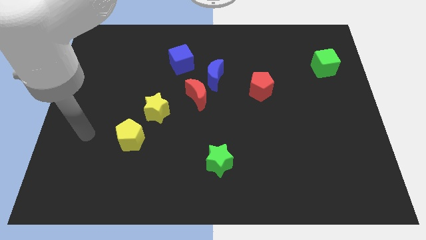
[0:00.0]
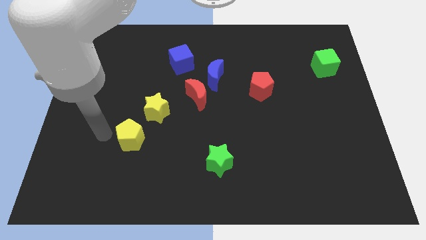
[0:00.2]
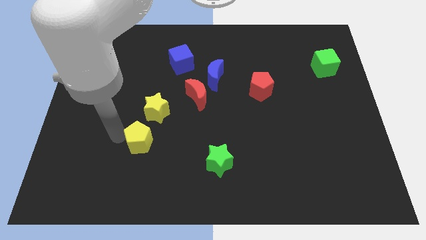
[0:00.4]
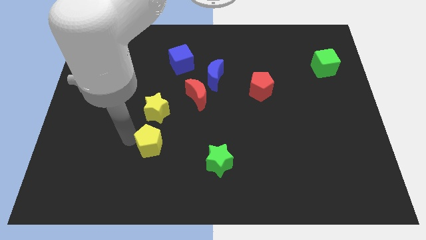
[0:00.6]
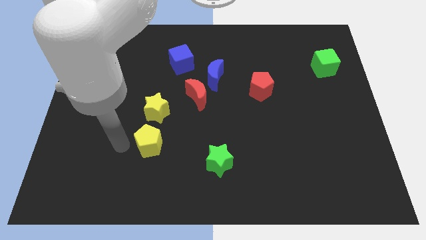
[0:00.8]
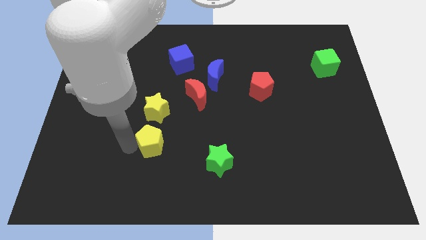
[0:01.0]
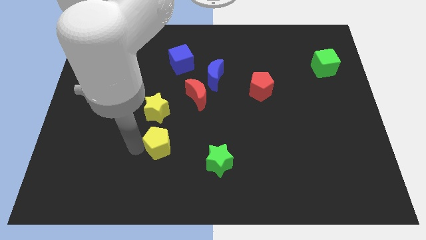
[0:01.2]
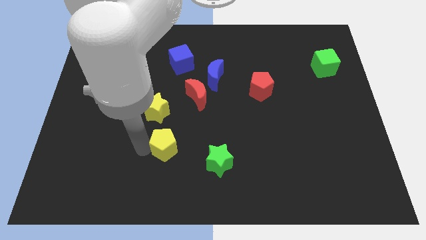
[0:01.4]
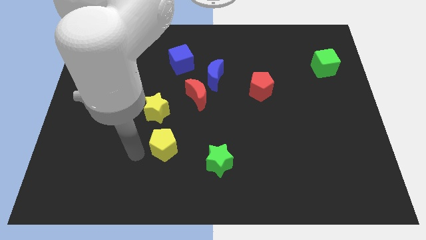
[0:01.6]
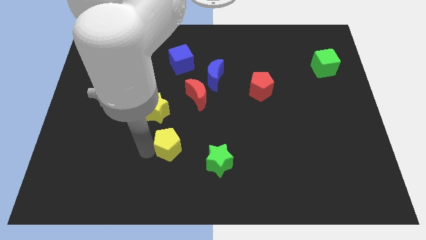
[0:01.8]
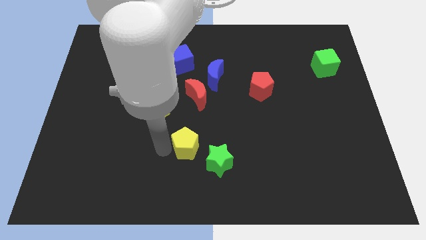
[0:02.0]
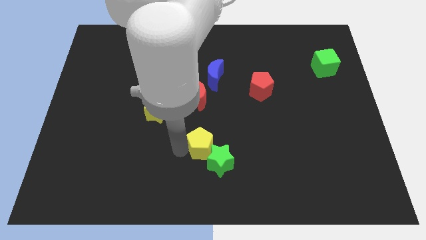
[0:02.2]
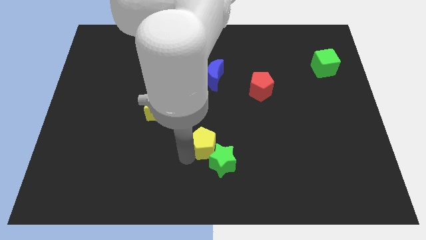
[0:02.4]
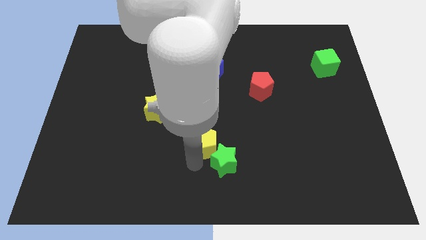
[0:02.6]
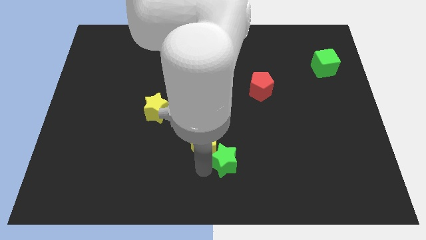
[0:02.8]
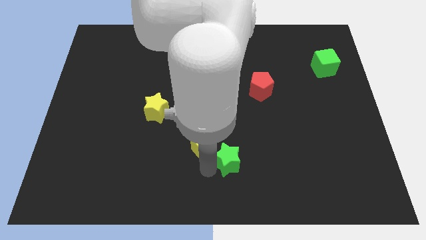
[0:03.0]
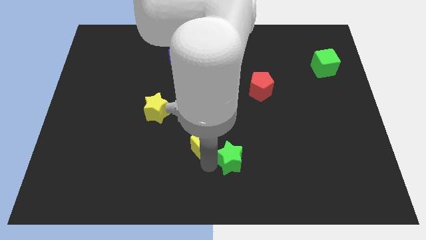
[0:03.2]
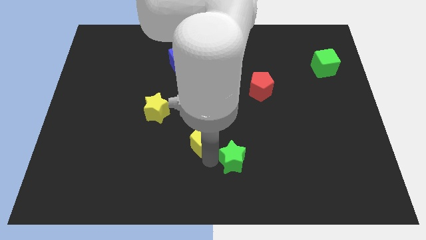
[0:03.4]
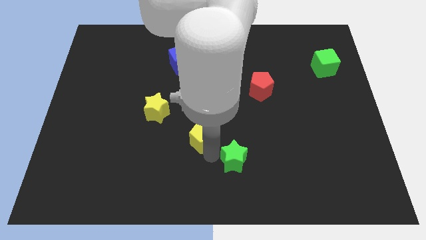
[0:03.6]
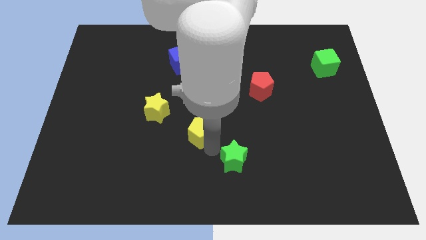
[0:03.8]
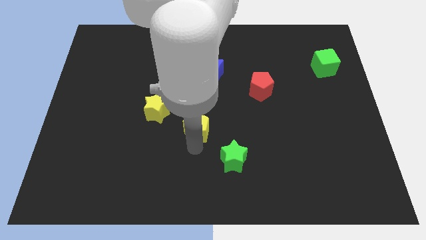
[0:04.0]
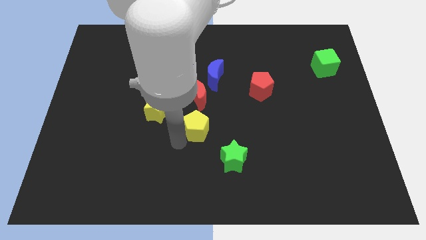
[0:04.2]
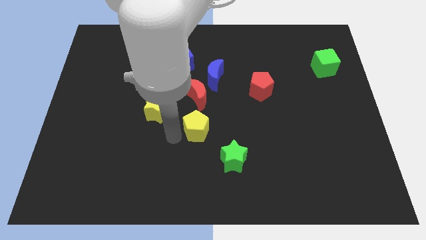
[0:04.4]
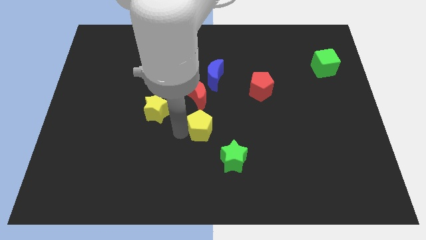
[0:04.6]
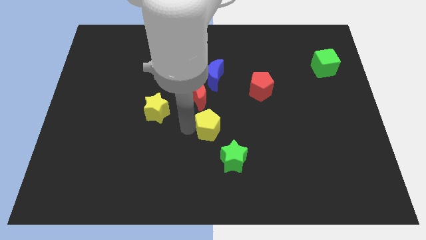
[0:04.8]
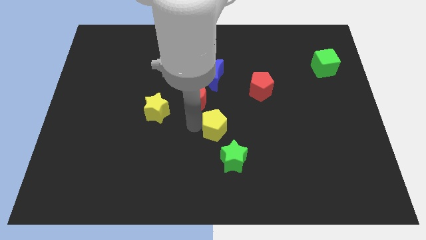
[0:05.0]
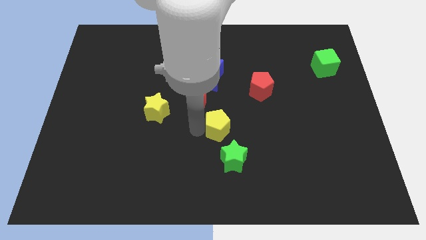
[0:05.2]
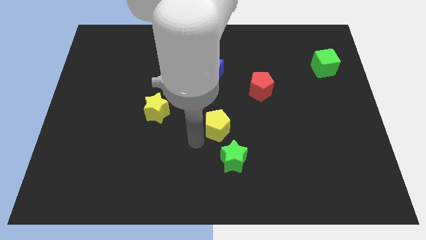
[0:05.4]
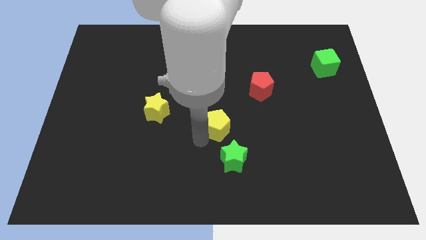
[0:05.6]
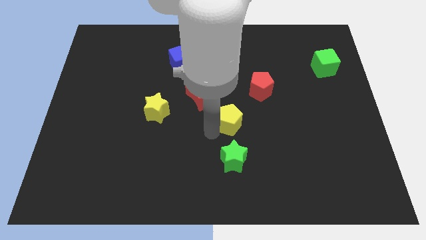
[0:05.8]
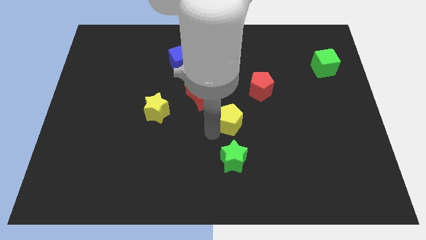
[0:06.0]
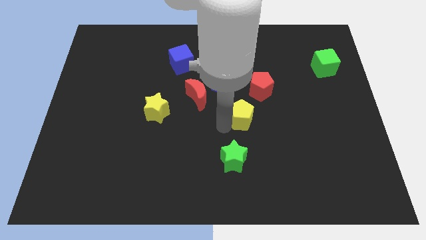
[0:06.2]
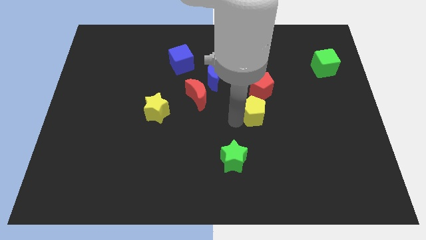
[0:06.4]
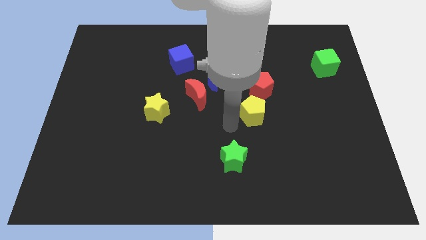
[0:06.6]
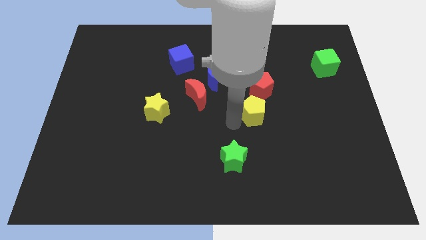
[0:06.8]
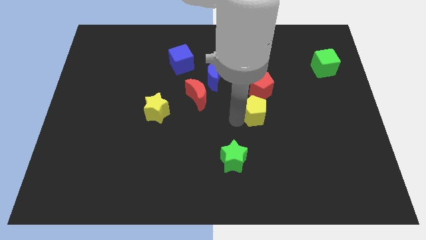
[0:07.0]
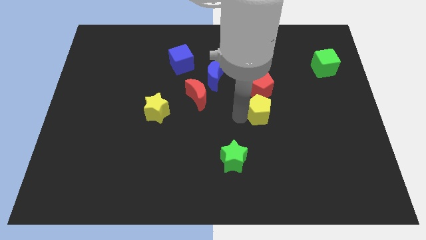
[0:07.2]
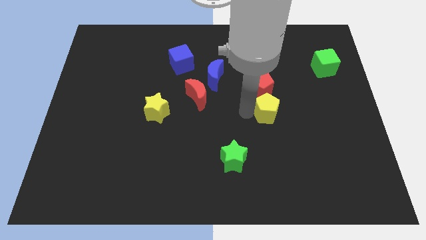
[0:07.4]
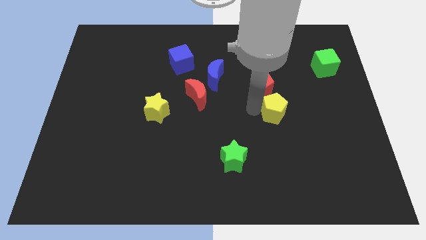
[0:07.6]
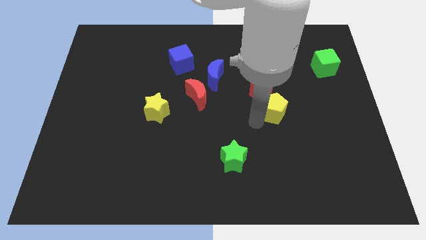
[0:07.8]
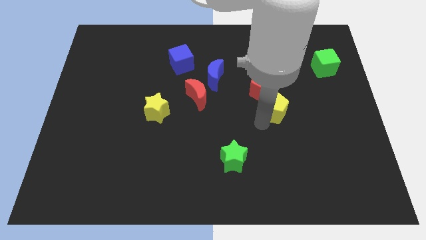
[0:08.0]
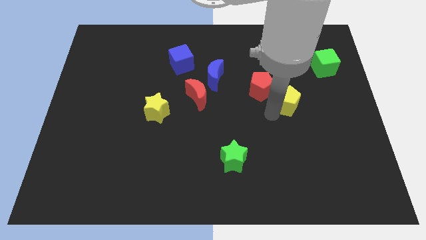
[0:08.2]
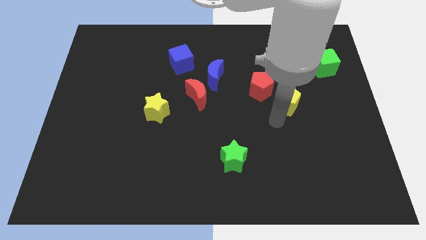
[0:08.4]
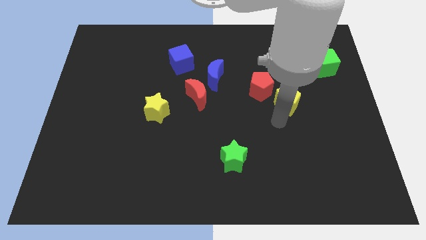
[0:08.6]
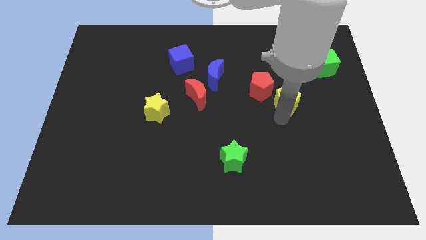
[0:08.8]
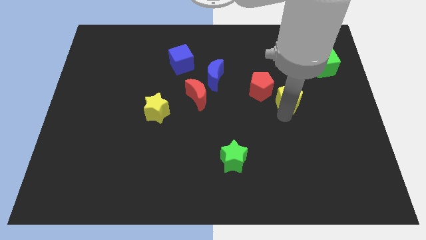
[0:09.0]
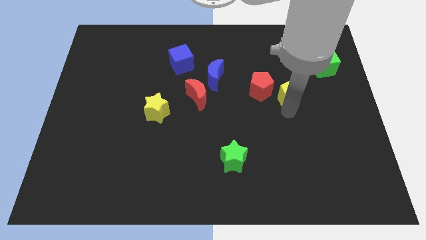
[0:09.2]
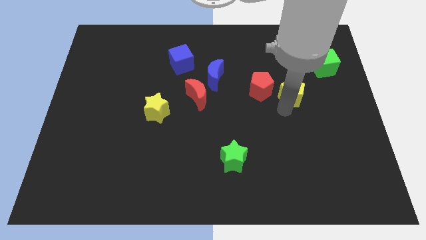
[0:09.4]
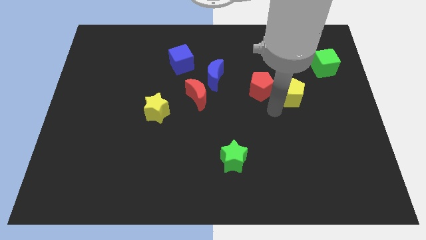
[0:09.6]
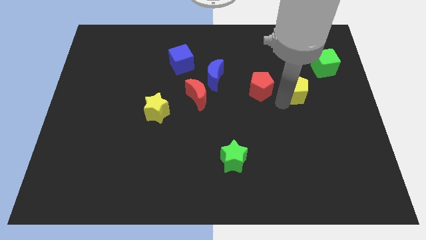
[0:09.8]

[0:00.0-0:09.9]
put the yellow pentagon to the bottom left of the green cube

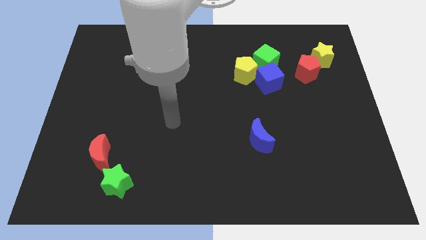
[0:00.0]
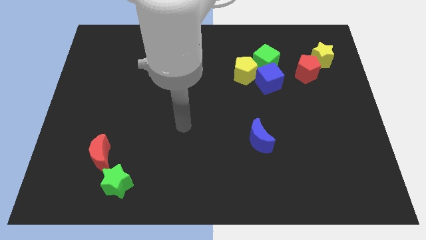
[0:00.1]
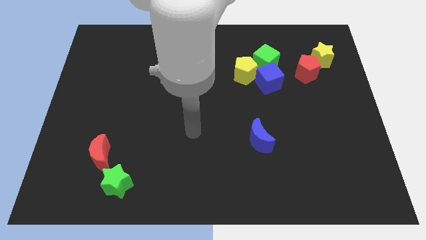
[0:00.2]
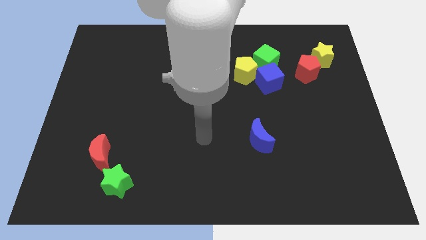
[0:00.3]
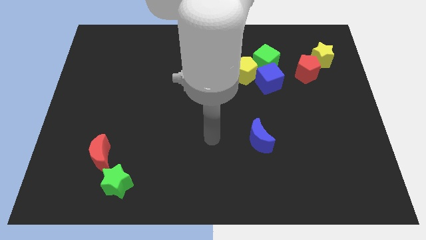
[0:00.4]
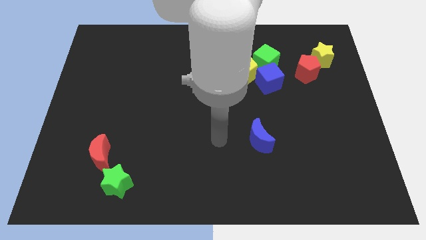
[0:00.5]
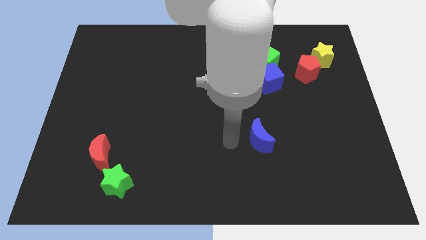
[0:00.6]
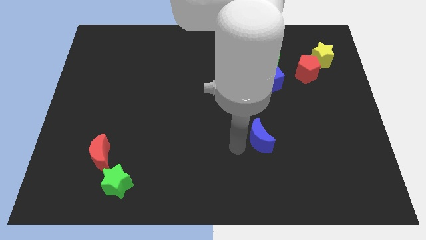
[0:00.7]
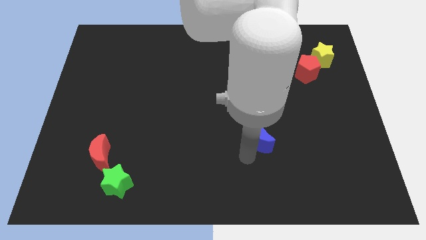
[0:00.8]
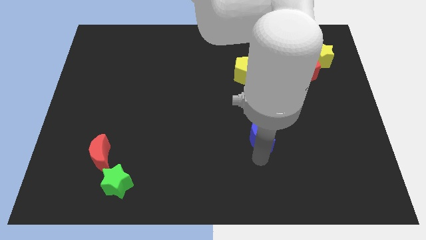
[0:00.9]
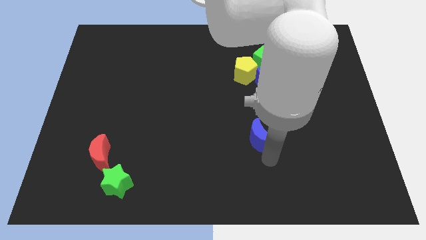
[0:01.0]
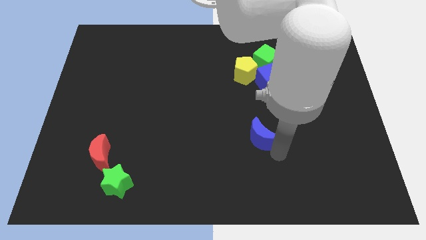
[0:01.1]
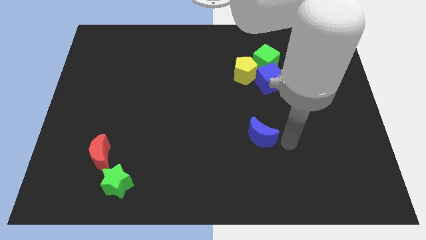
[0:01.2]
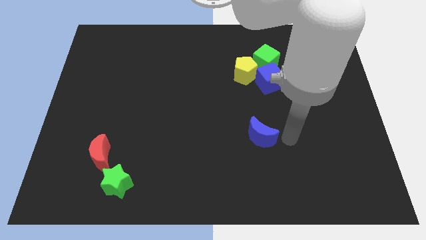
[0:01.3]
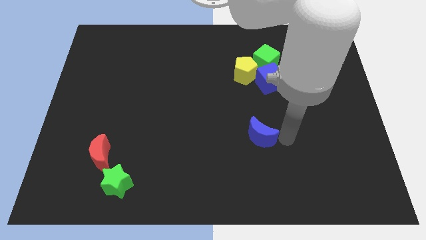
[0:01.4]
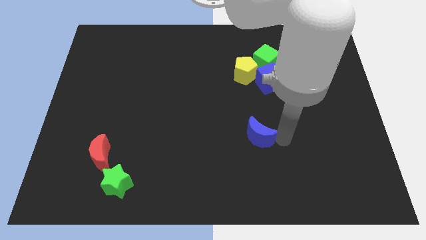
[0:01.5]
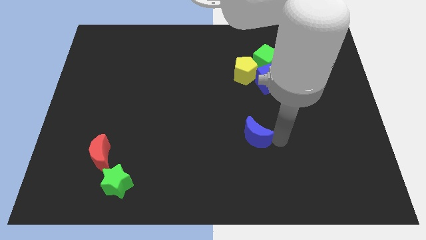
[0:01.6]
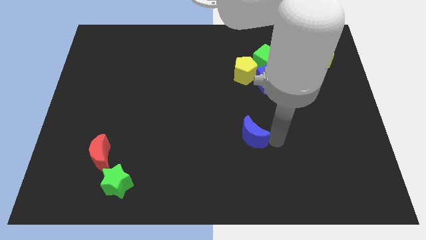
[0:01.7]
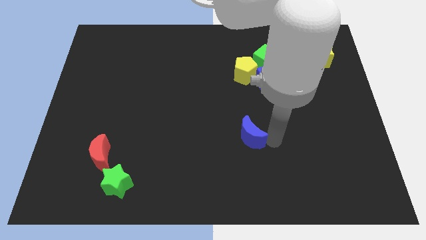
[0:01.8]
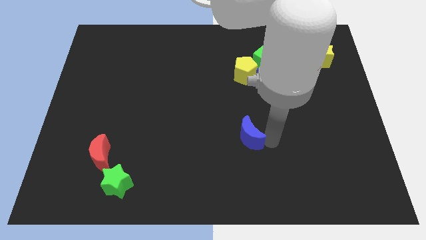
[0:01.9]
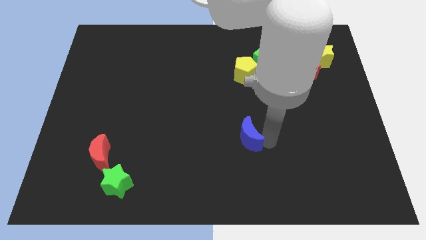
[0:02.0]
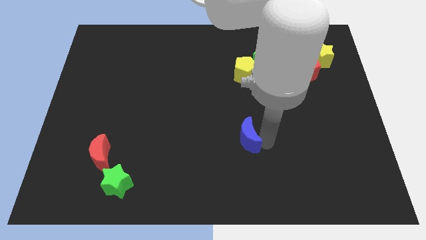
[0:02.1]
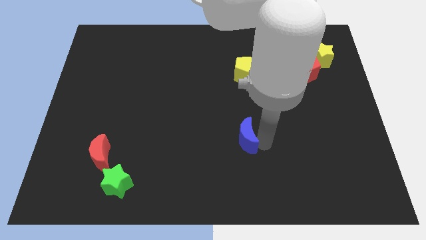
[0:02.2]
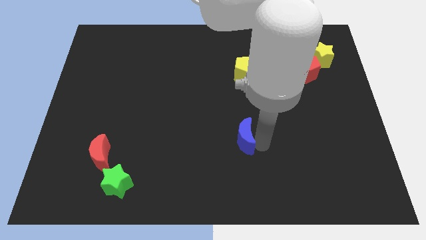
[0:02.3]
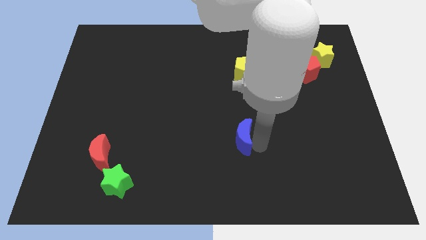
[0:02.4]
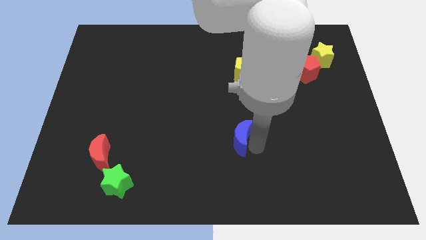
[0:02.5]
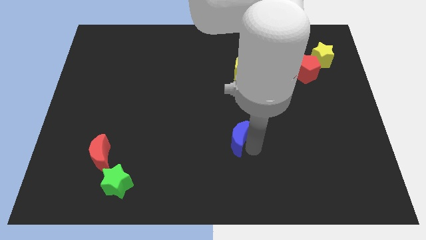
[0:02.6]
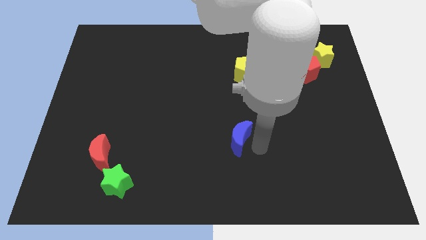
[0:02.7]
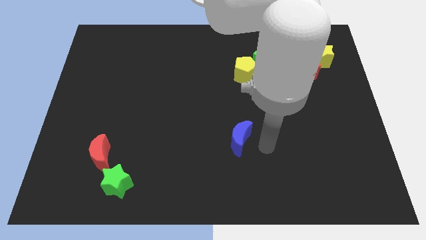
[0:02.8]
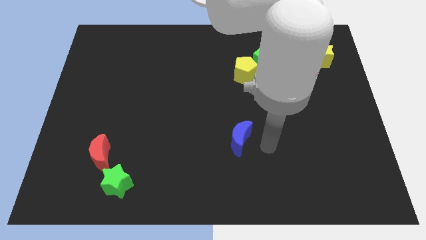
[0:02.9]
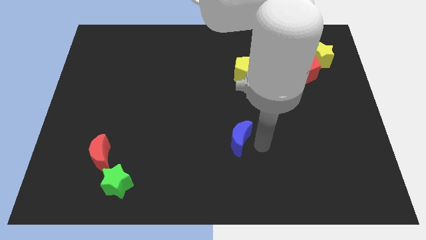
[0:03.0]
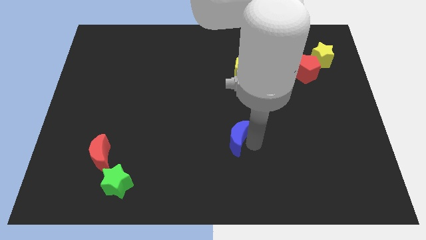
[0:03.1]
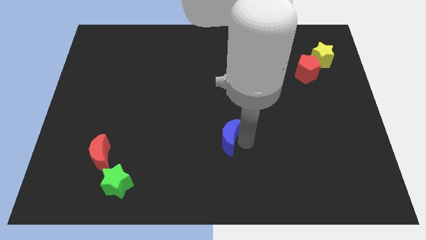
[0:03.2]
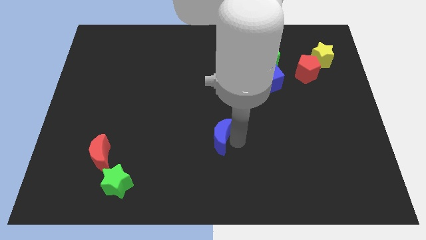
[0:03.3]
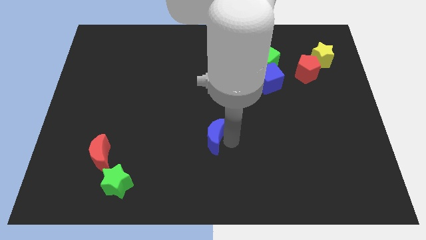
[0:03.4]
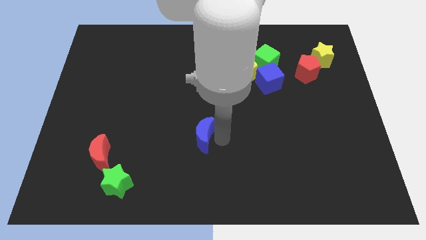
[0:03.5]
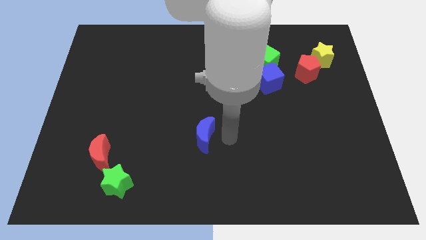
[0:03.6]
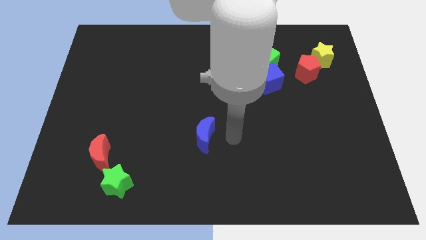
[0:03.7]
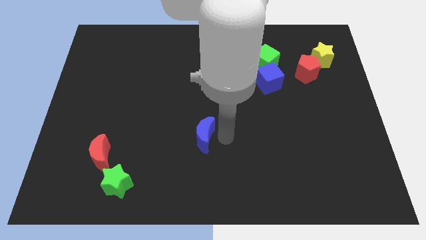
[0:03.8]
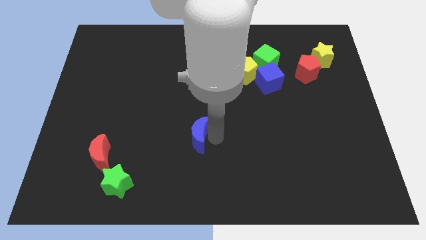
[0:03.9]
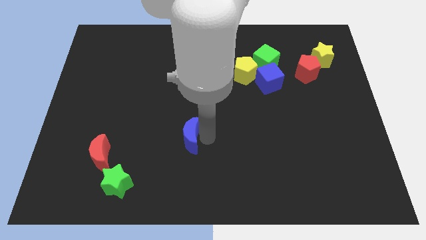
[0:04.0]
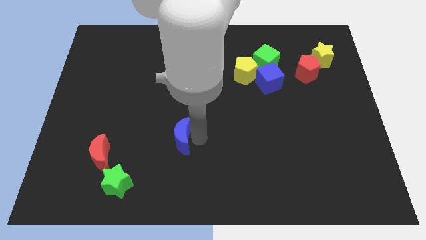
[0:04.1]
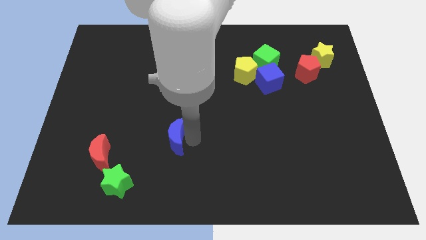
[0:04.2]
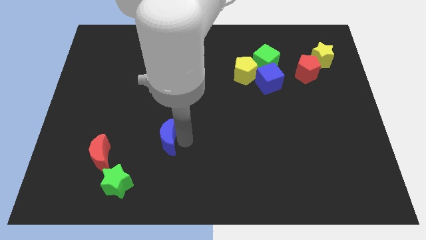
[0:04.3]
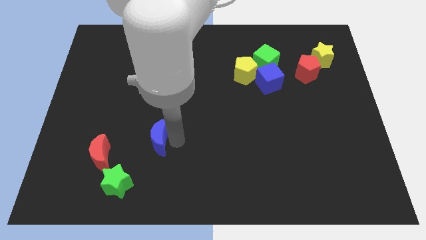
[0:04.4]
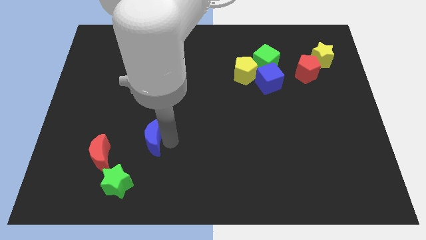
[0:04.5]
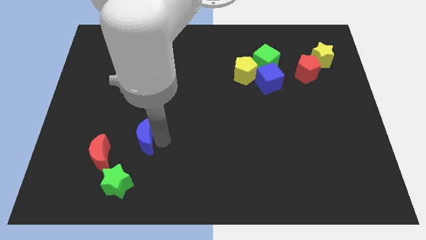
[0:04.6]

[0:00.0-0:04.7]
push the blue moon above the green star
